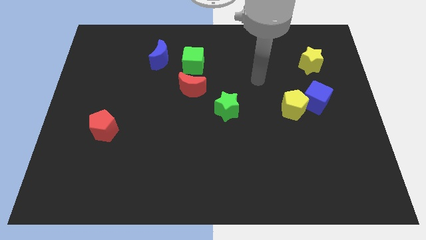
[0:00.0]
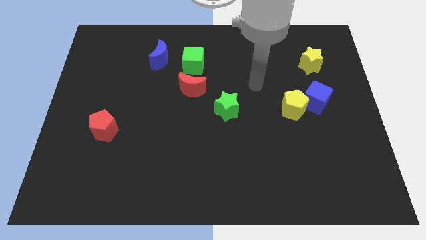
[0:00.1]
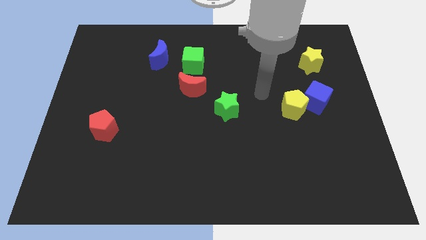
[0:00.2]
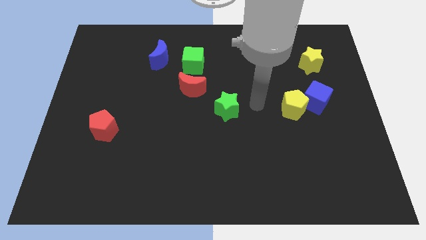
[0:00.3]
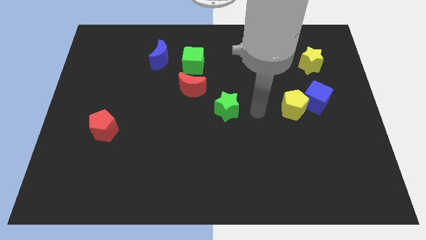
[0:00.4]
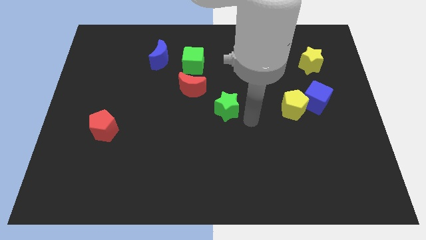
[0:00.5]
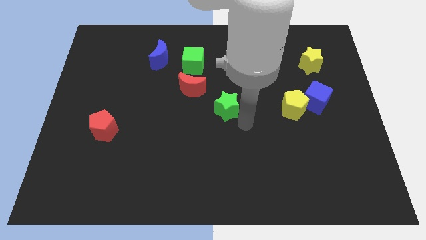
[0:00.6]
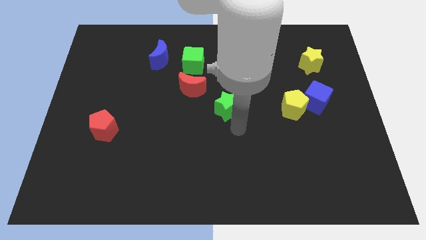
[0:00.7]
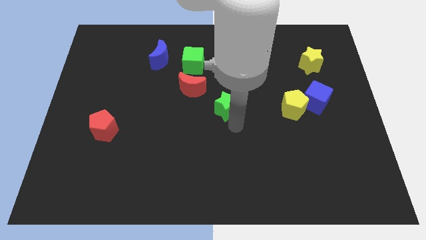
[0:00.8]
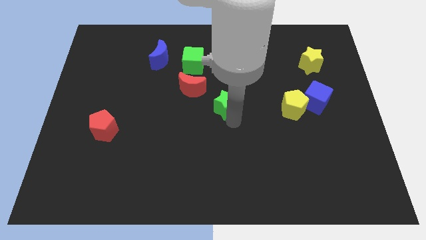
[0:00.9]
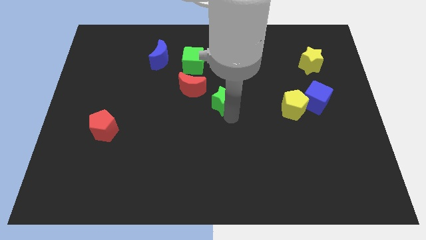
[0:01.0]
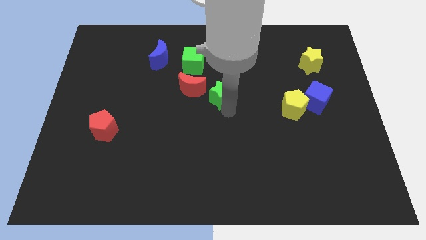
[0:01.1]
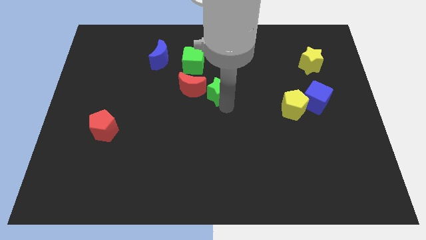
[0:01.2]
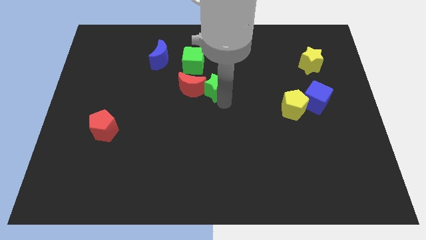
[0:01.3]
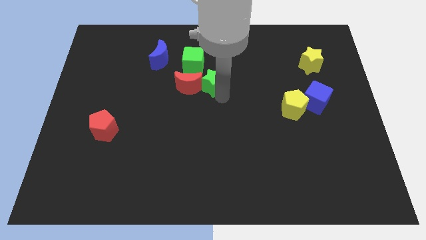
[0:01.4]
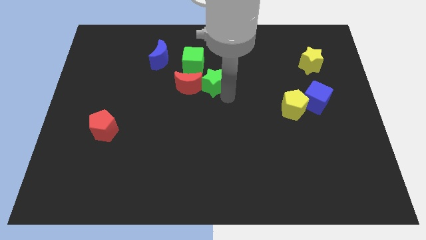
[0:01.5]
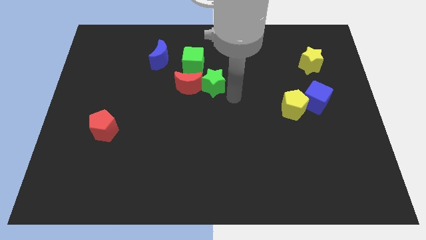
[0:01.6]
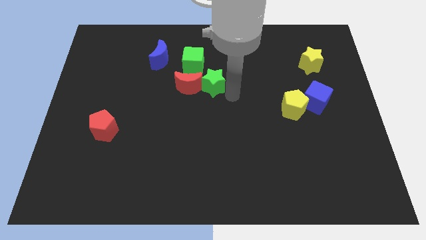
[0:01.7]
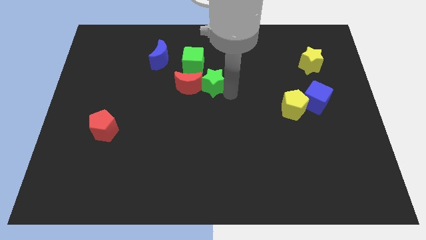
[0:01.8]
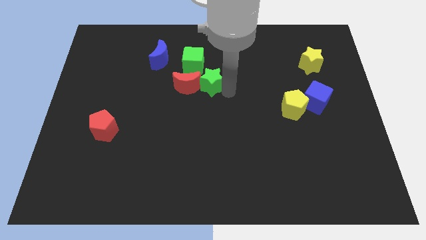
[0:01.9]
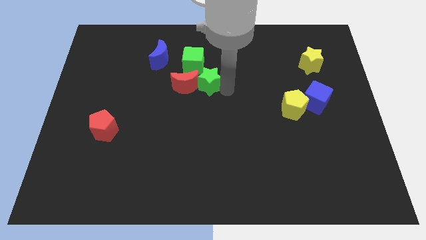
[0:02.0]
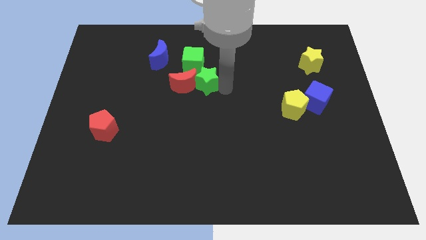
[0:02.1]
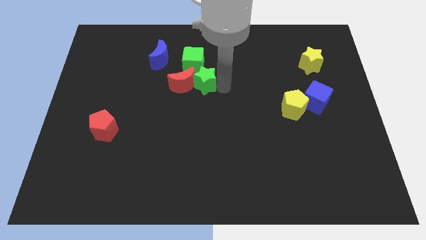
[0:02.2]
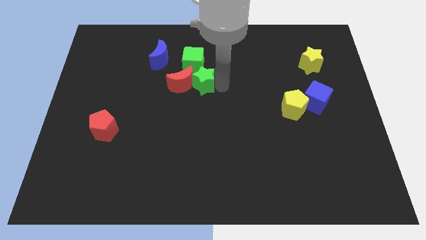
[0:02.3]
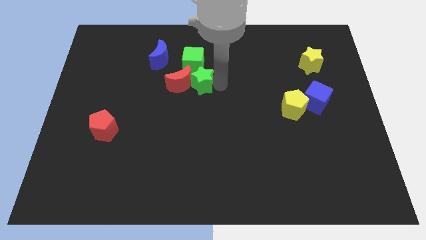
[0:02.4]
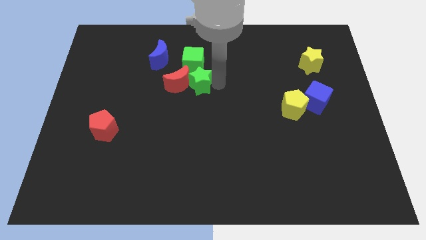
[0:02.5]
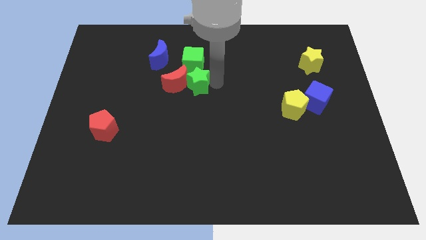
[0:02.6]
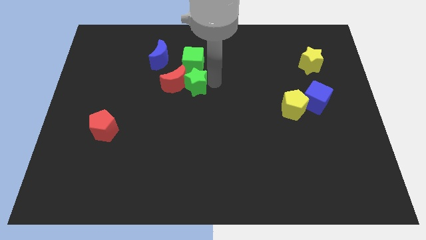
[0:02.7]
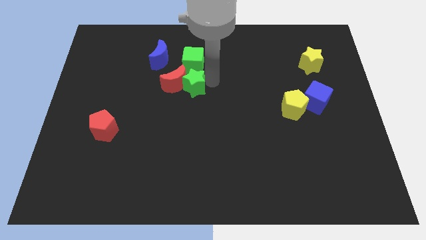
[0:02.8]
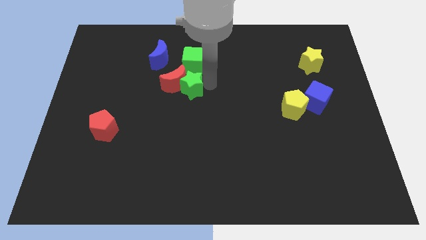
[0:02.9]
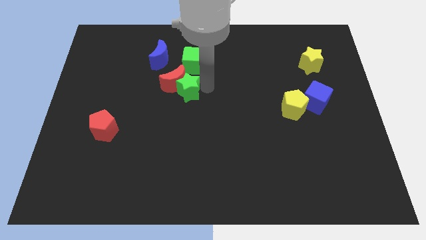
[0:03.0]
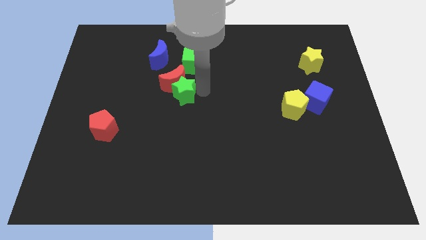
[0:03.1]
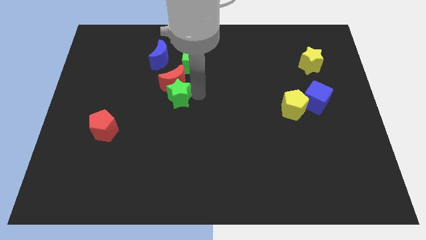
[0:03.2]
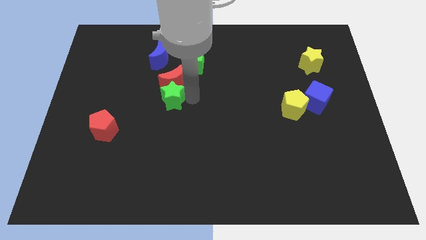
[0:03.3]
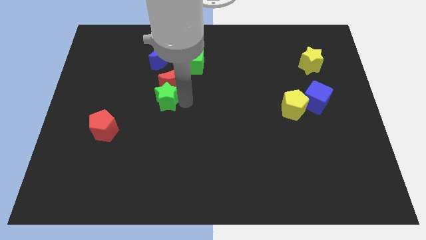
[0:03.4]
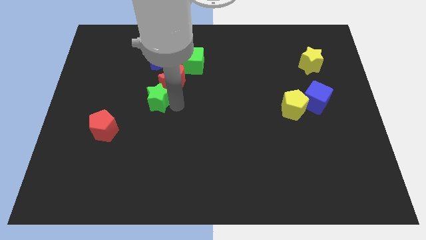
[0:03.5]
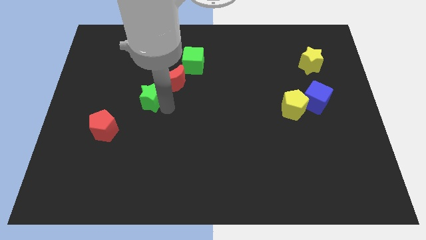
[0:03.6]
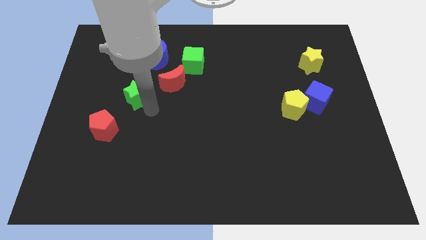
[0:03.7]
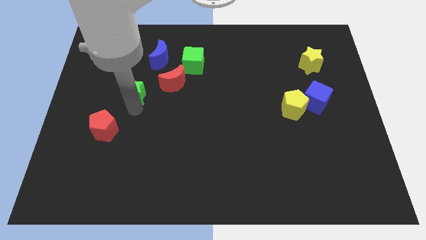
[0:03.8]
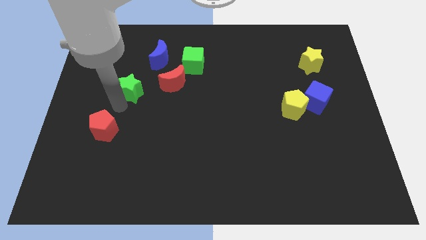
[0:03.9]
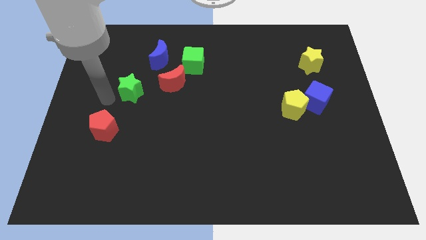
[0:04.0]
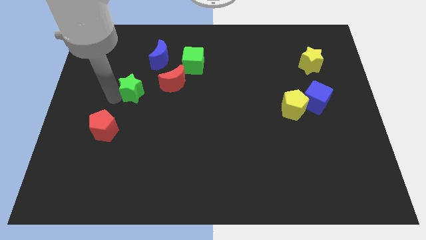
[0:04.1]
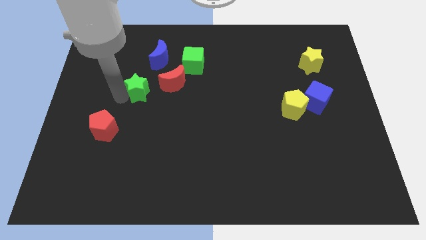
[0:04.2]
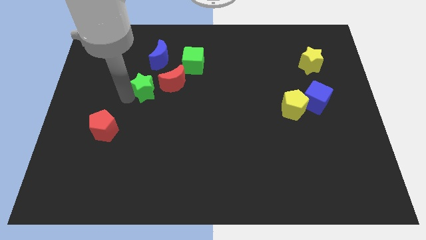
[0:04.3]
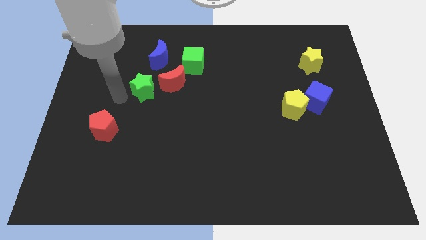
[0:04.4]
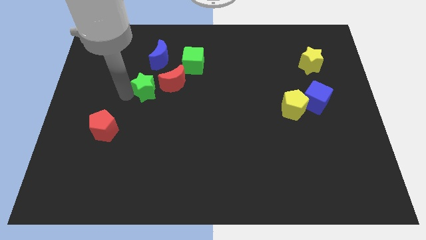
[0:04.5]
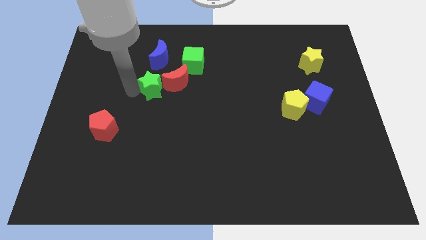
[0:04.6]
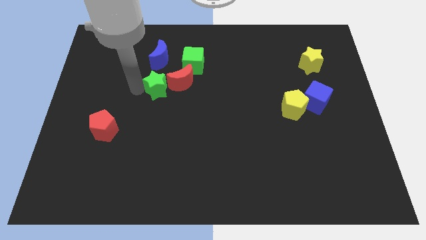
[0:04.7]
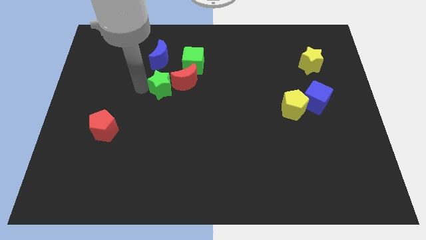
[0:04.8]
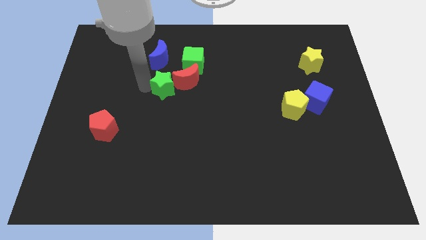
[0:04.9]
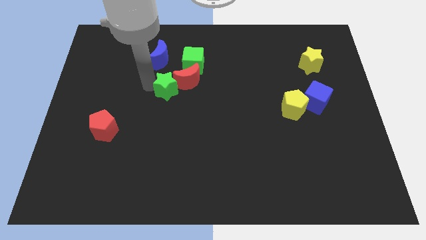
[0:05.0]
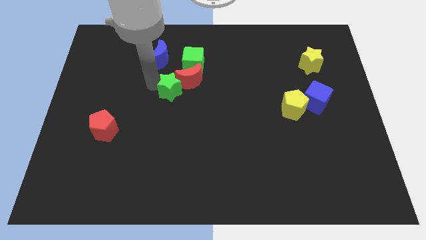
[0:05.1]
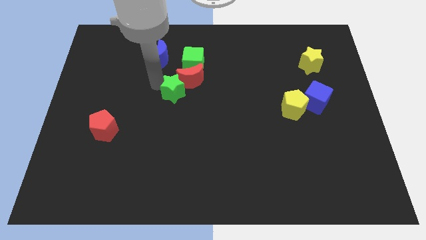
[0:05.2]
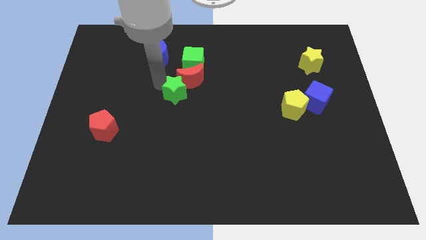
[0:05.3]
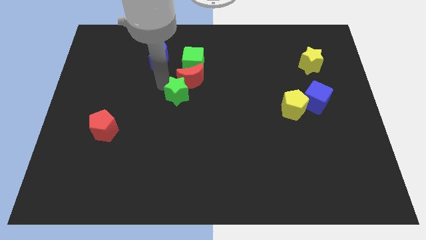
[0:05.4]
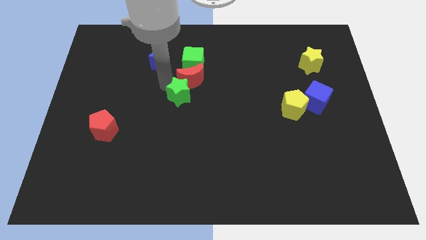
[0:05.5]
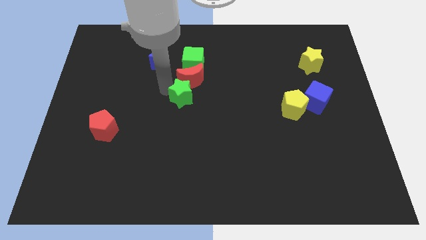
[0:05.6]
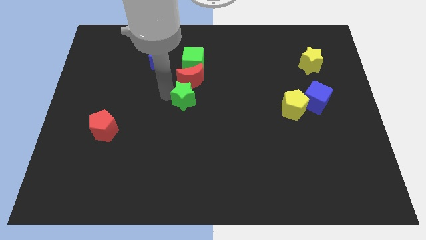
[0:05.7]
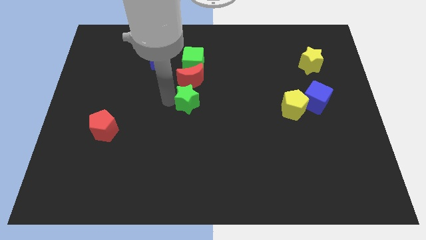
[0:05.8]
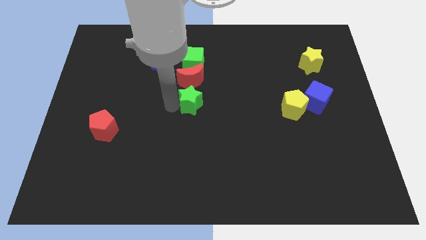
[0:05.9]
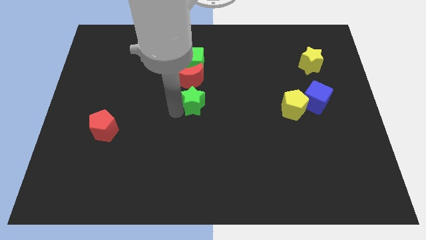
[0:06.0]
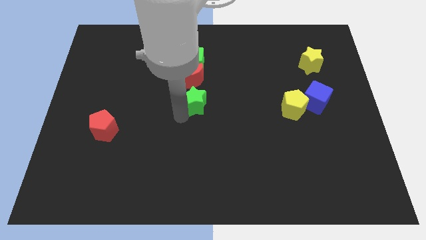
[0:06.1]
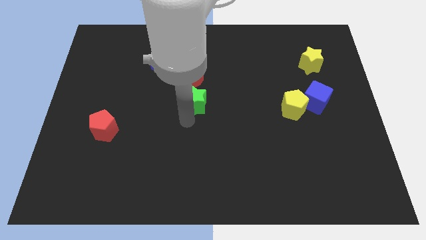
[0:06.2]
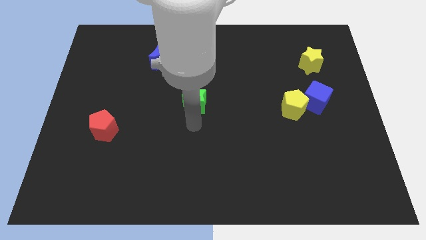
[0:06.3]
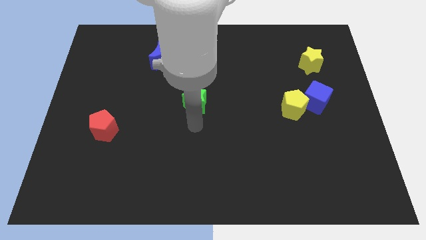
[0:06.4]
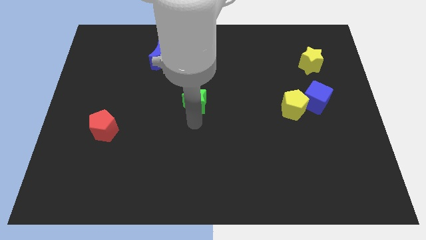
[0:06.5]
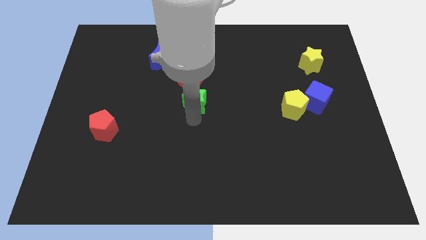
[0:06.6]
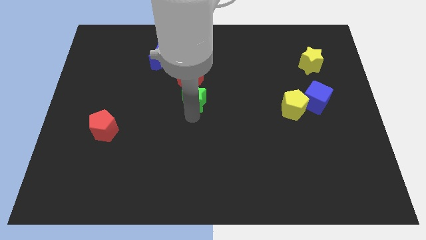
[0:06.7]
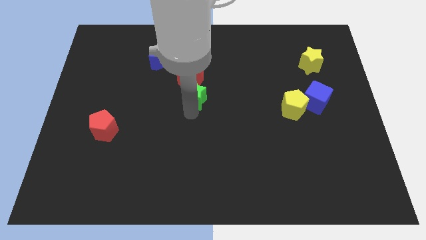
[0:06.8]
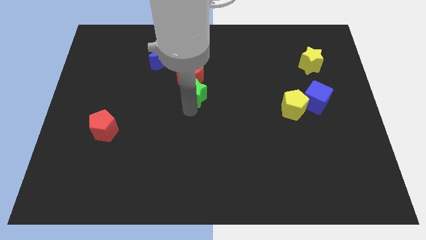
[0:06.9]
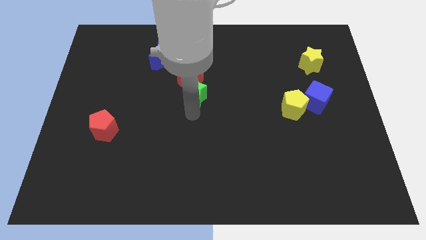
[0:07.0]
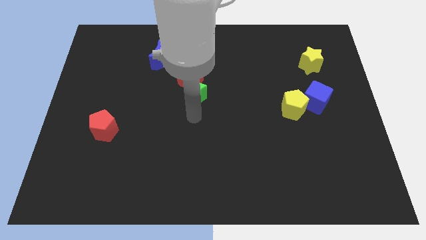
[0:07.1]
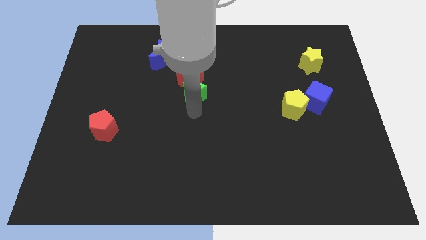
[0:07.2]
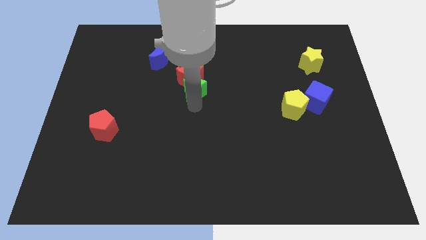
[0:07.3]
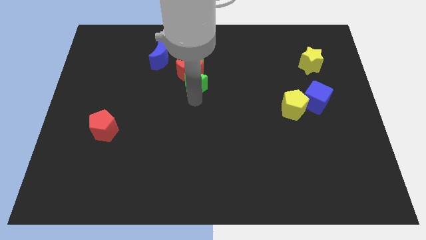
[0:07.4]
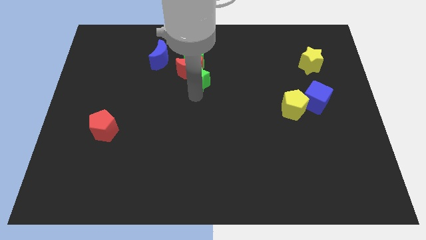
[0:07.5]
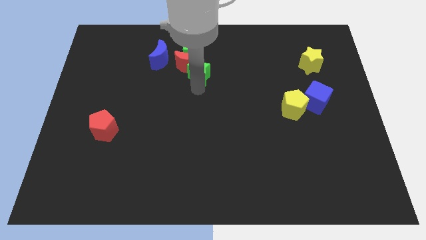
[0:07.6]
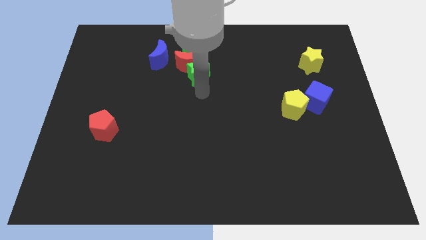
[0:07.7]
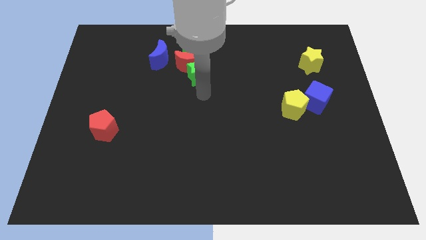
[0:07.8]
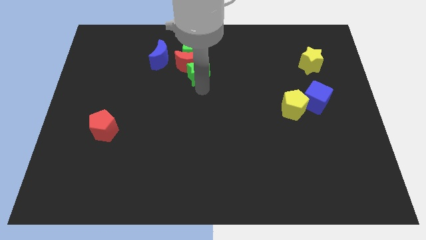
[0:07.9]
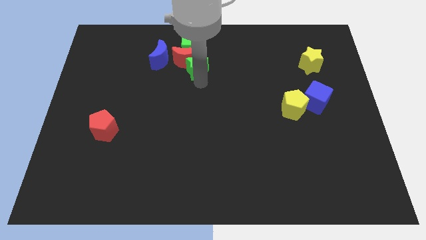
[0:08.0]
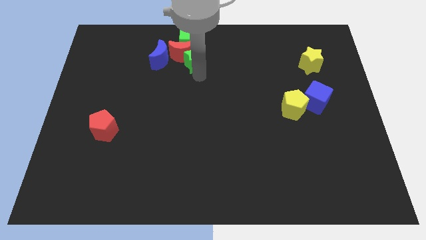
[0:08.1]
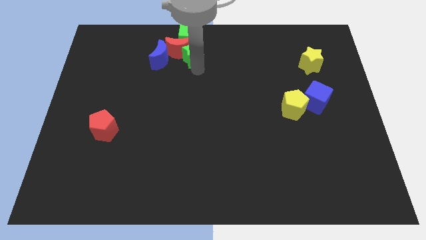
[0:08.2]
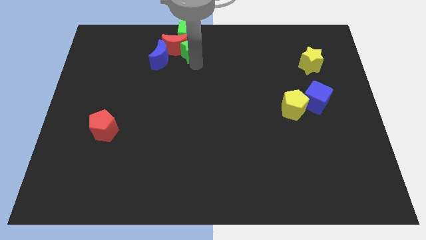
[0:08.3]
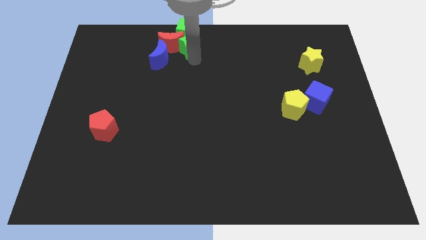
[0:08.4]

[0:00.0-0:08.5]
push the green star towards the green cube

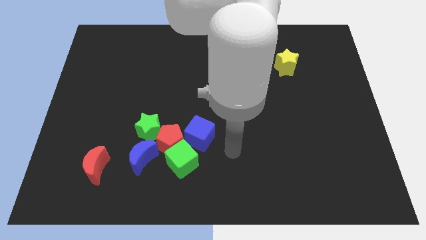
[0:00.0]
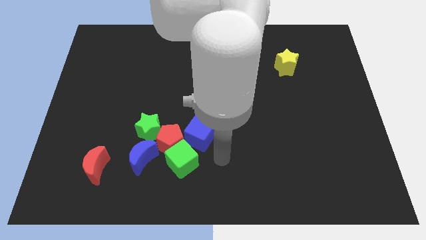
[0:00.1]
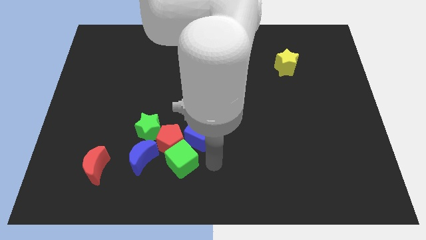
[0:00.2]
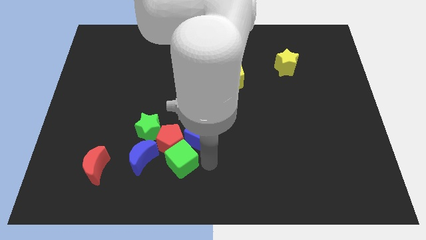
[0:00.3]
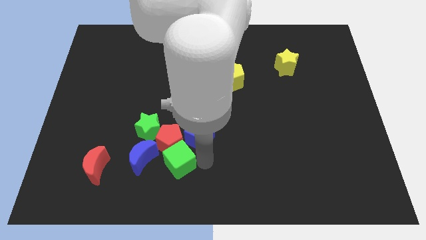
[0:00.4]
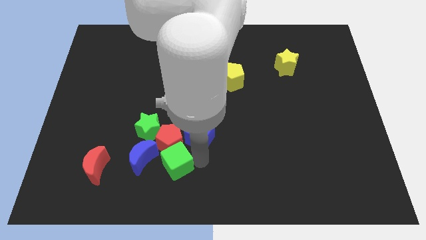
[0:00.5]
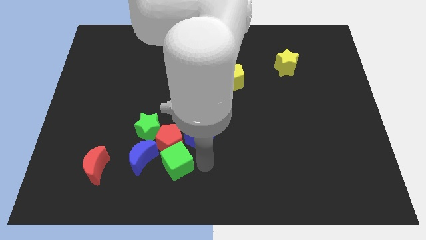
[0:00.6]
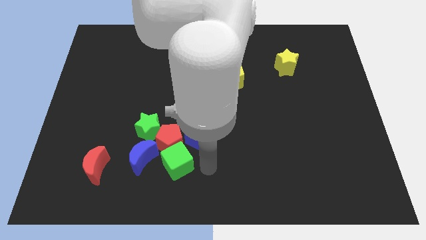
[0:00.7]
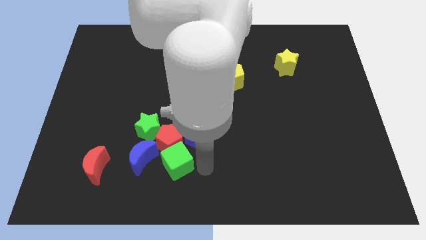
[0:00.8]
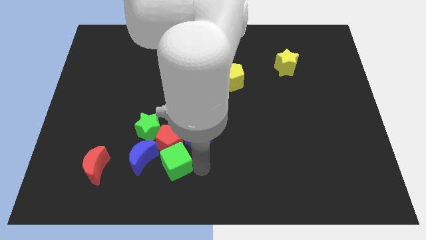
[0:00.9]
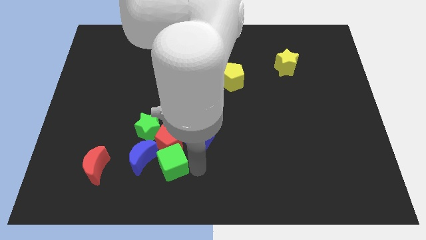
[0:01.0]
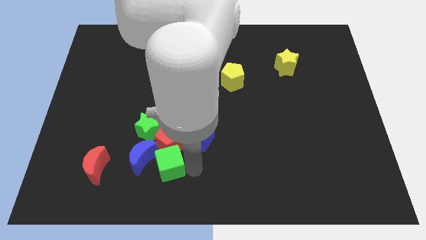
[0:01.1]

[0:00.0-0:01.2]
put the green cube next to the blue moon
